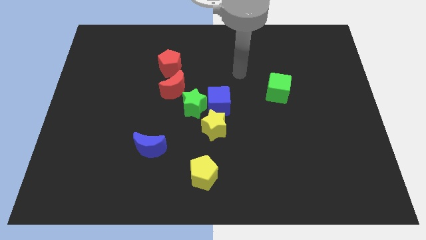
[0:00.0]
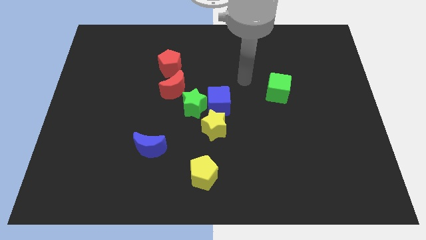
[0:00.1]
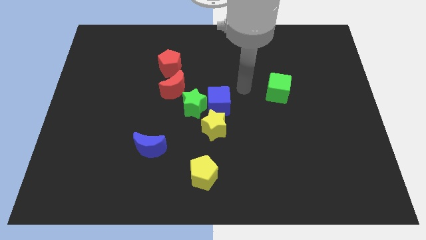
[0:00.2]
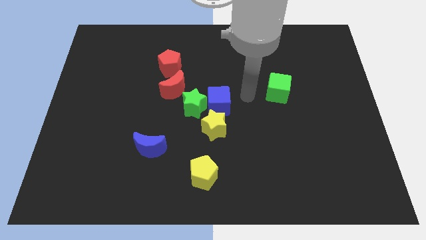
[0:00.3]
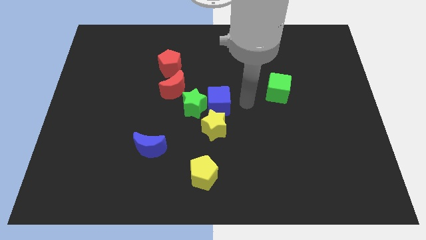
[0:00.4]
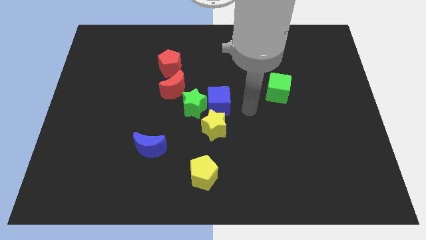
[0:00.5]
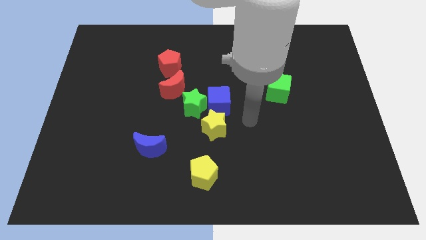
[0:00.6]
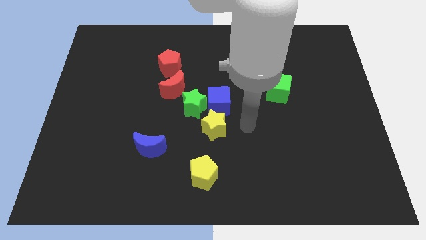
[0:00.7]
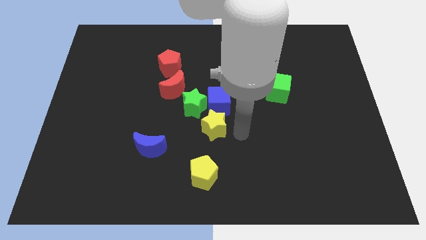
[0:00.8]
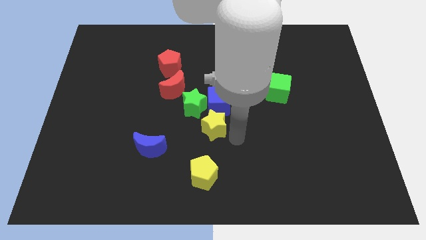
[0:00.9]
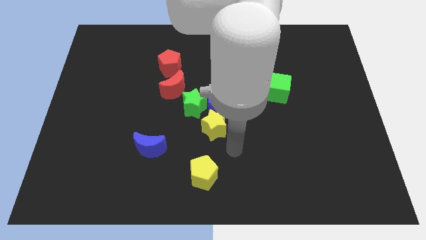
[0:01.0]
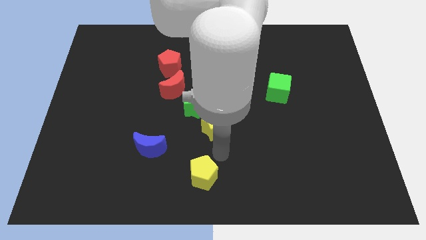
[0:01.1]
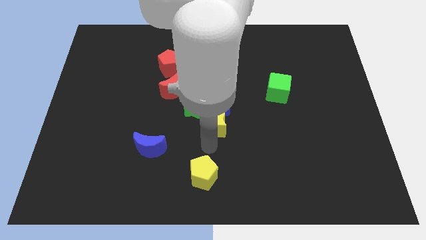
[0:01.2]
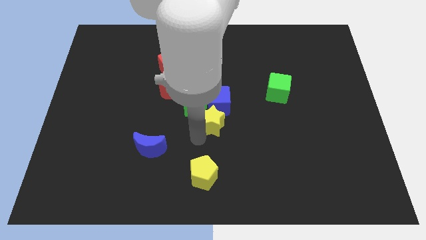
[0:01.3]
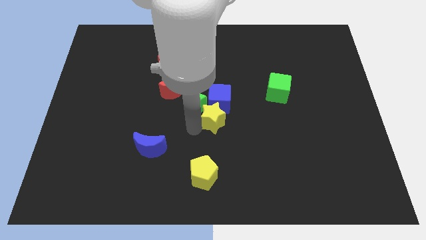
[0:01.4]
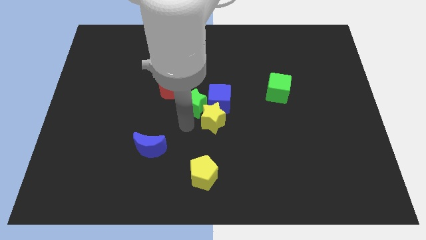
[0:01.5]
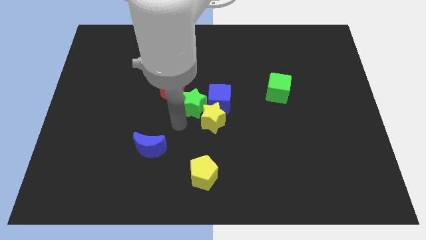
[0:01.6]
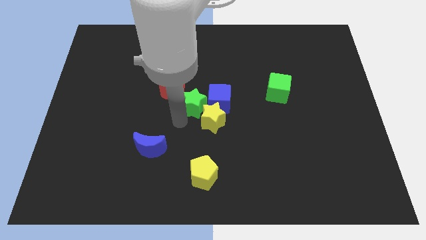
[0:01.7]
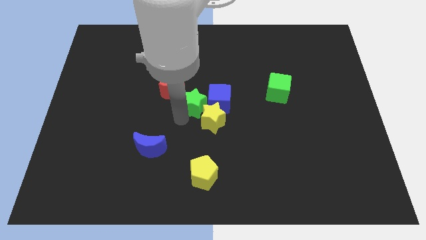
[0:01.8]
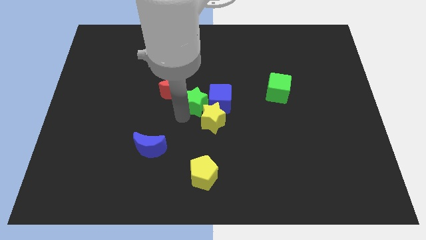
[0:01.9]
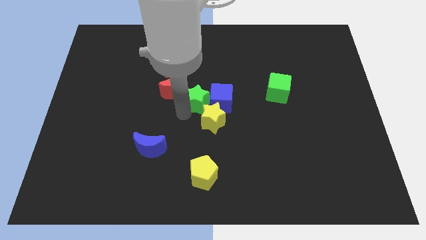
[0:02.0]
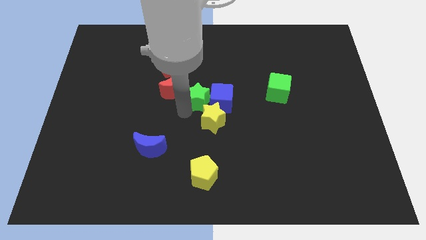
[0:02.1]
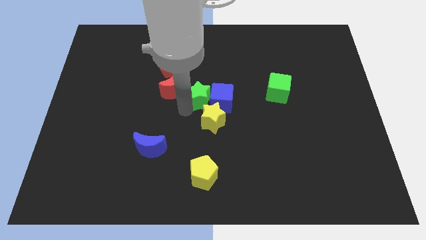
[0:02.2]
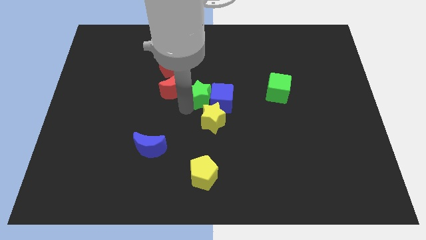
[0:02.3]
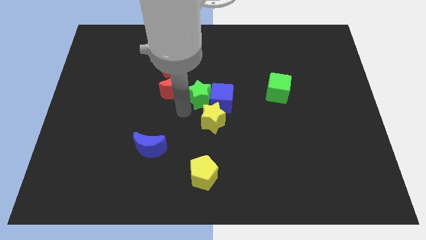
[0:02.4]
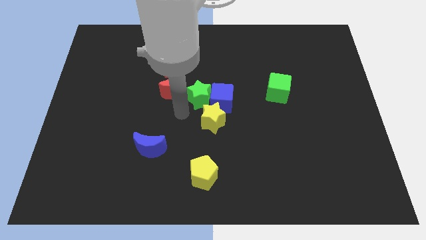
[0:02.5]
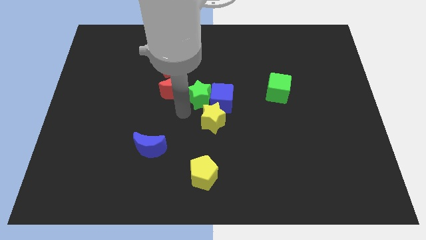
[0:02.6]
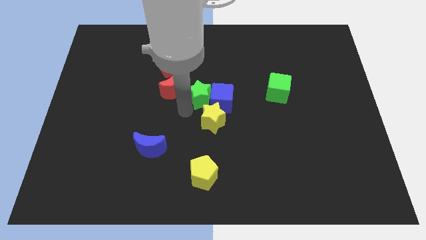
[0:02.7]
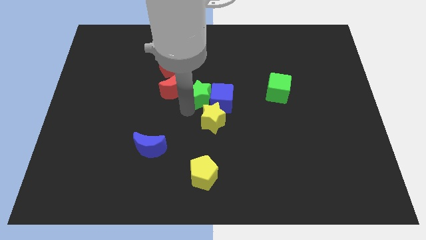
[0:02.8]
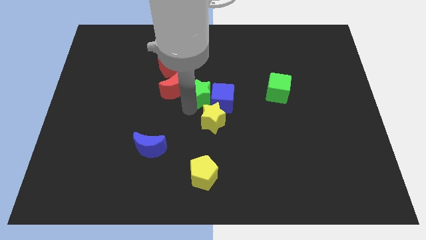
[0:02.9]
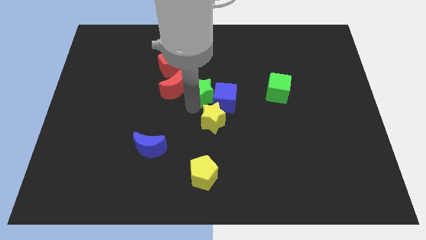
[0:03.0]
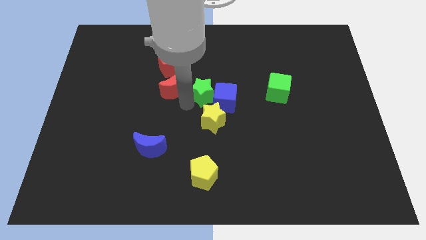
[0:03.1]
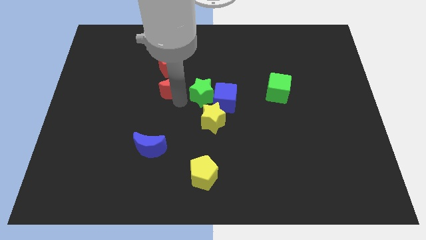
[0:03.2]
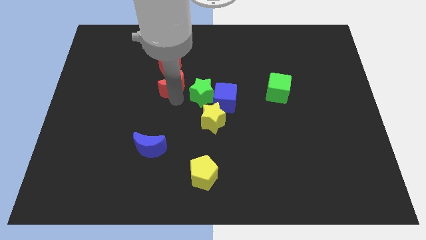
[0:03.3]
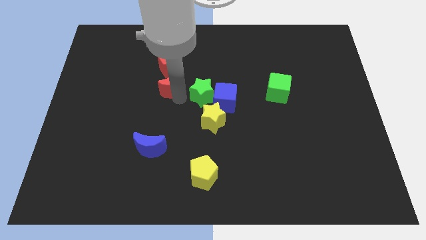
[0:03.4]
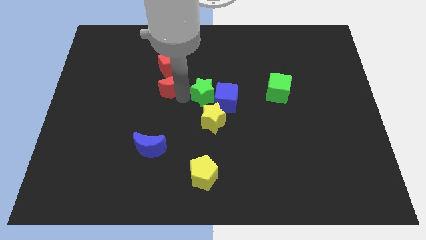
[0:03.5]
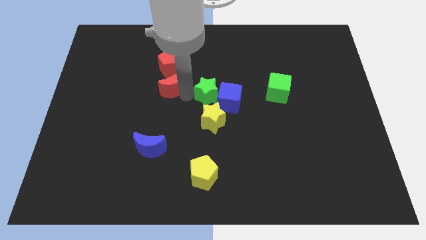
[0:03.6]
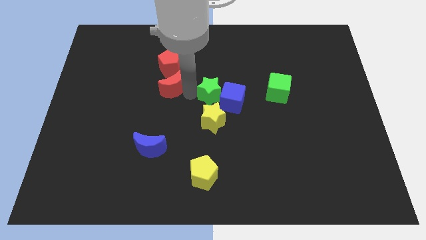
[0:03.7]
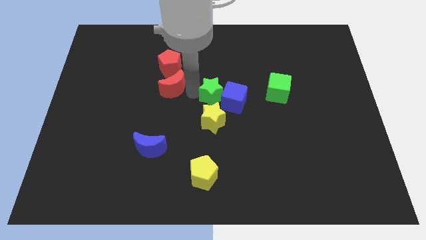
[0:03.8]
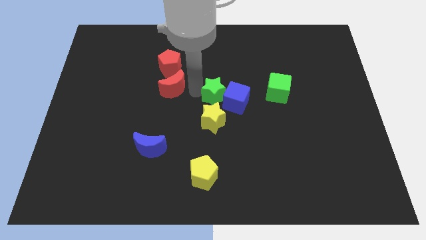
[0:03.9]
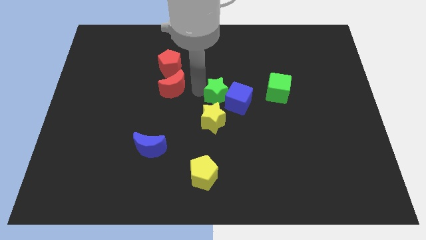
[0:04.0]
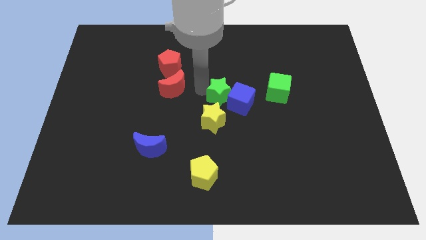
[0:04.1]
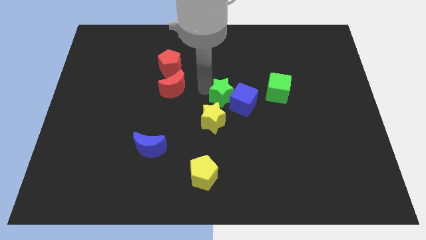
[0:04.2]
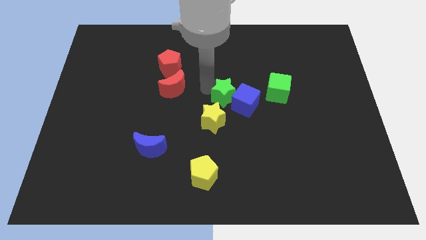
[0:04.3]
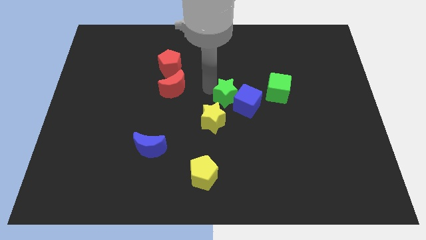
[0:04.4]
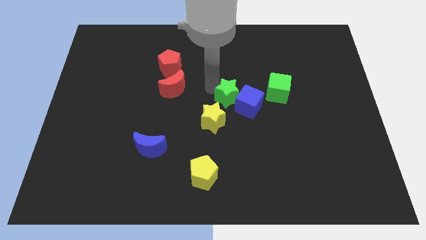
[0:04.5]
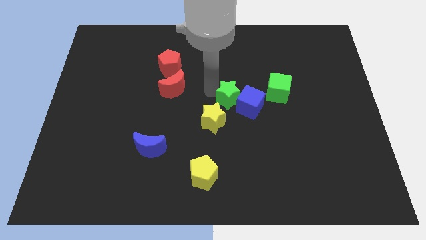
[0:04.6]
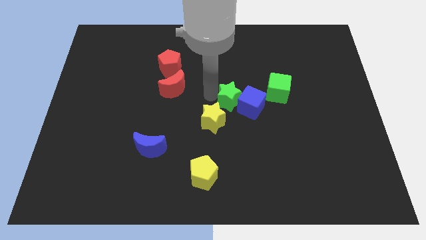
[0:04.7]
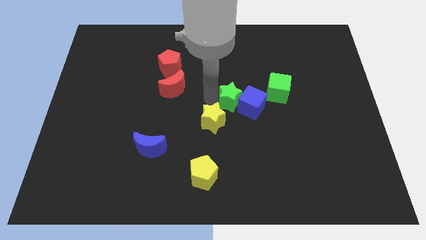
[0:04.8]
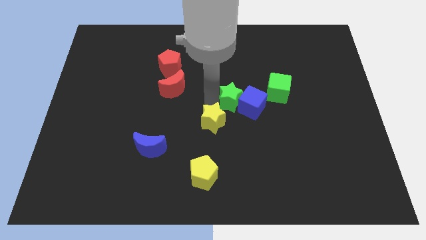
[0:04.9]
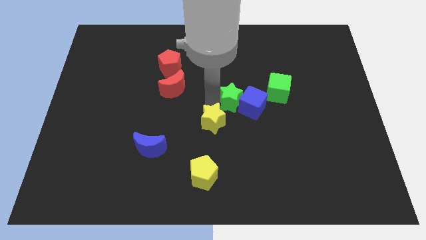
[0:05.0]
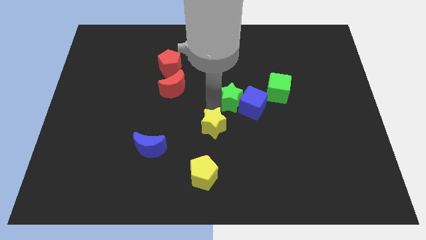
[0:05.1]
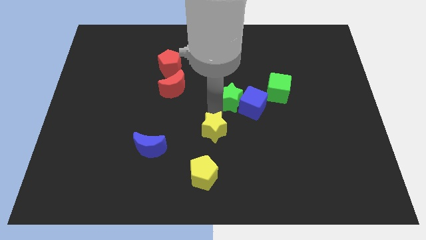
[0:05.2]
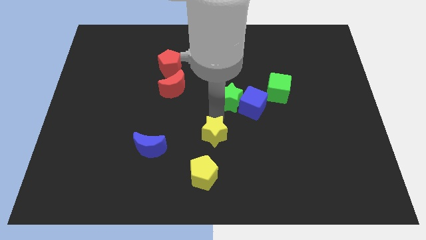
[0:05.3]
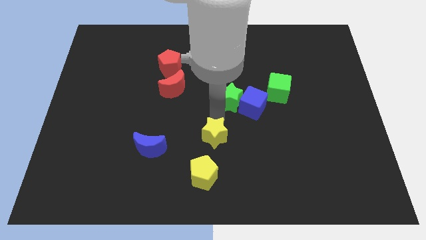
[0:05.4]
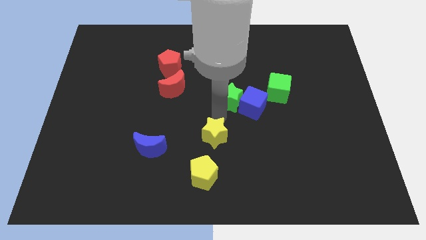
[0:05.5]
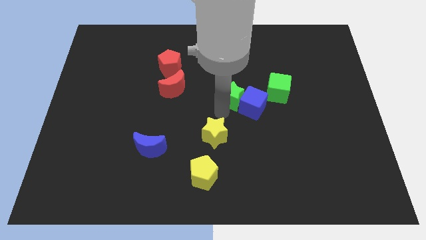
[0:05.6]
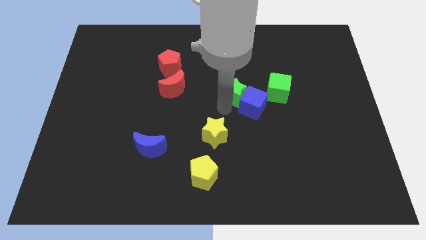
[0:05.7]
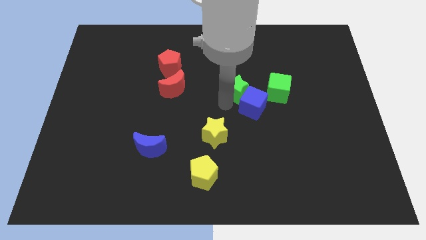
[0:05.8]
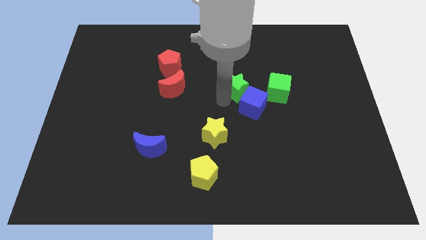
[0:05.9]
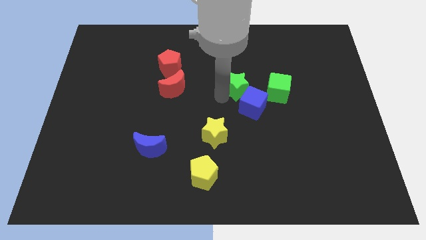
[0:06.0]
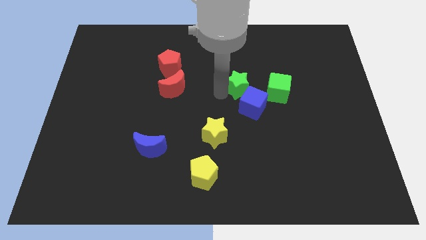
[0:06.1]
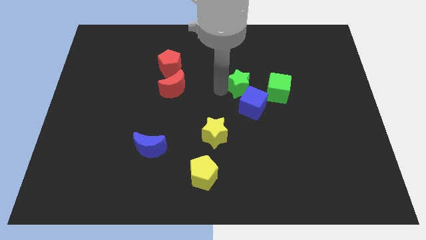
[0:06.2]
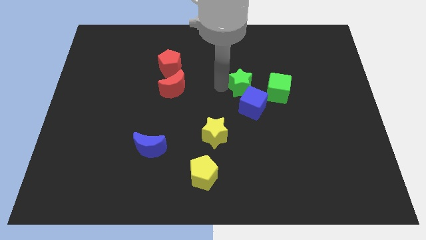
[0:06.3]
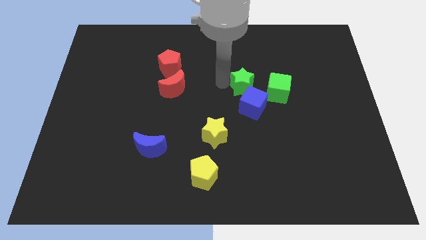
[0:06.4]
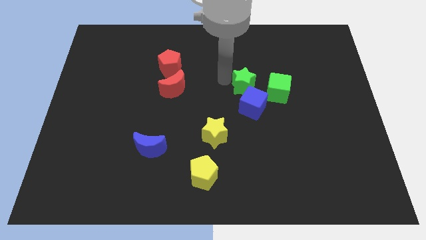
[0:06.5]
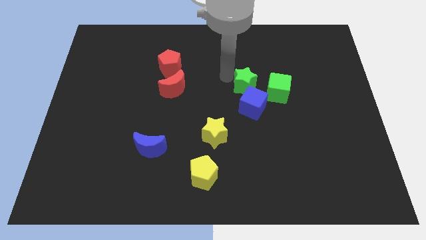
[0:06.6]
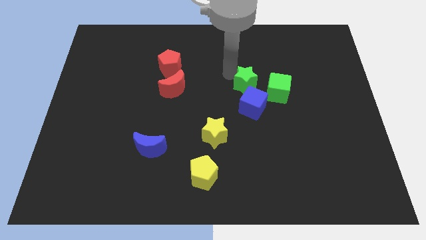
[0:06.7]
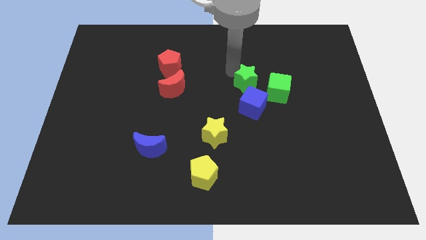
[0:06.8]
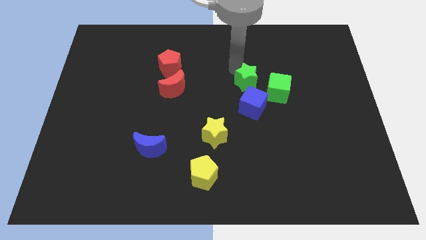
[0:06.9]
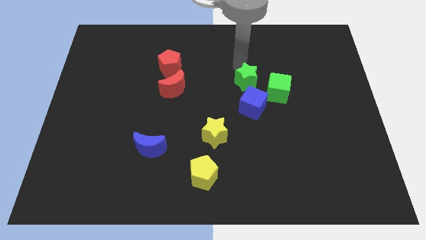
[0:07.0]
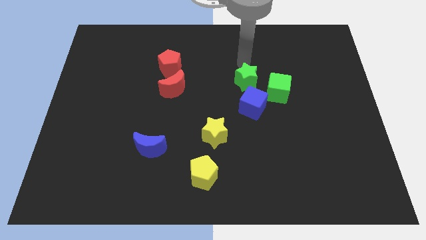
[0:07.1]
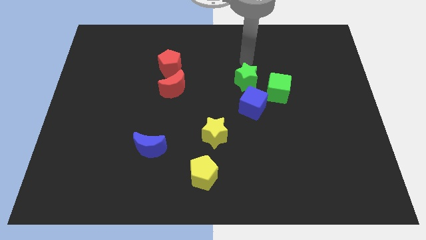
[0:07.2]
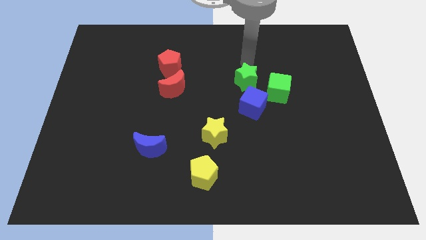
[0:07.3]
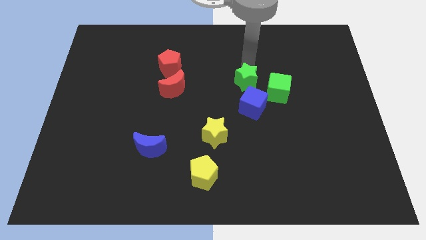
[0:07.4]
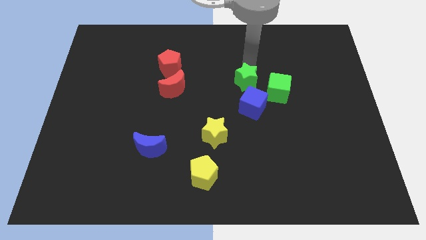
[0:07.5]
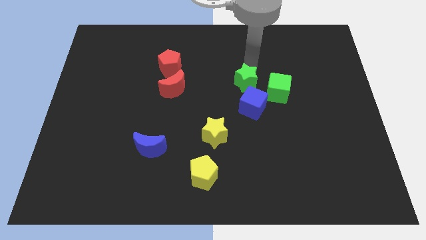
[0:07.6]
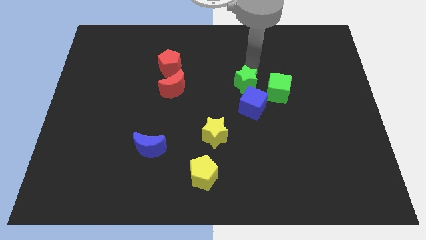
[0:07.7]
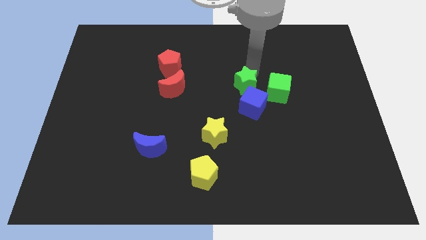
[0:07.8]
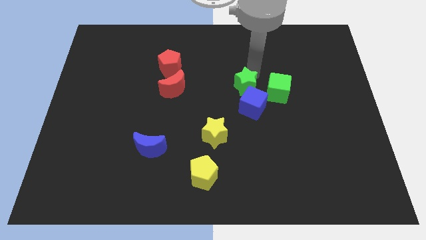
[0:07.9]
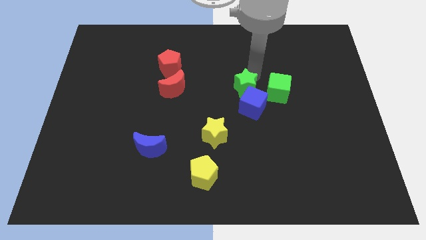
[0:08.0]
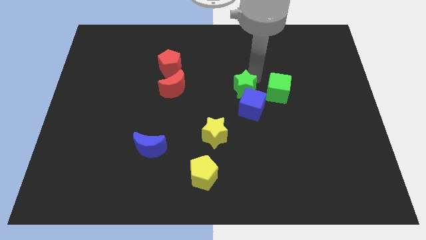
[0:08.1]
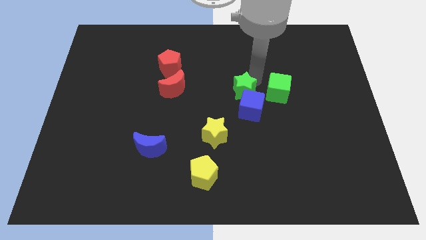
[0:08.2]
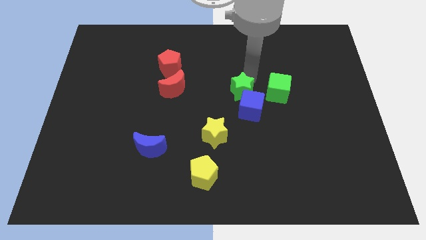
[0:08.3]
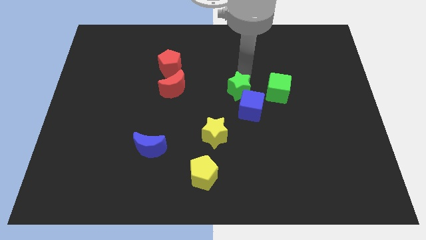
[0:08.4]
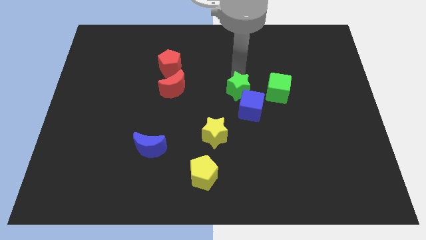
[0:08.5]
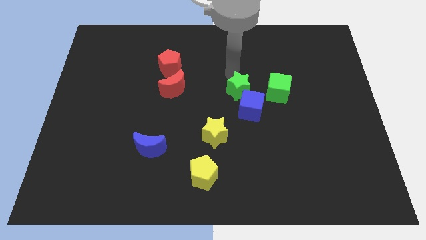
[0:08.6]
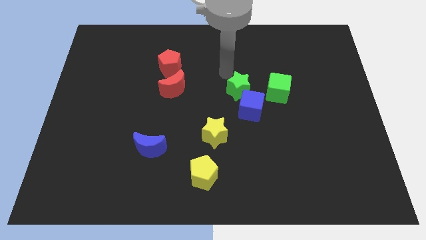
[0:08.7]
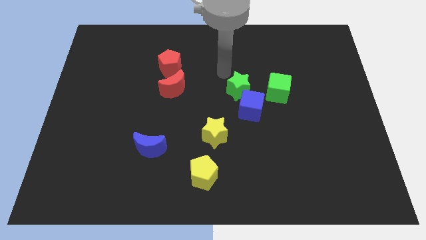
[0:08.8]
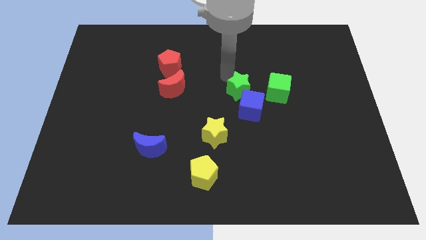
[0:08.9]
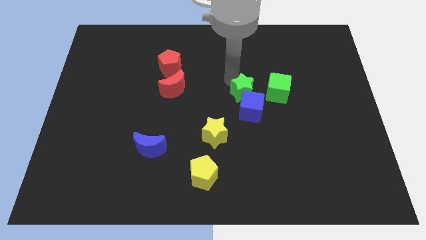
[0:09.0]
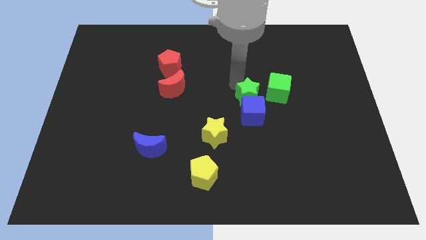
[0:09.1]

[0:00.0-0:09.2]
put the green star to the bottom left of the green cube
